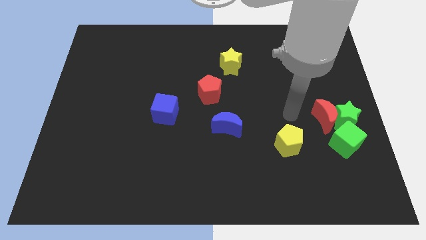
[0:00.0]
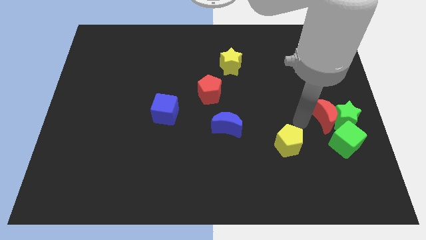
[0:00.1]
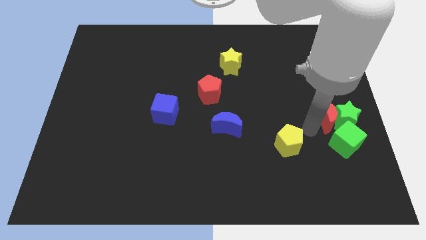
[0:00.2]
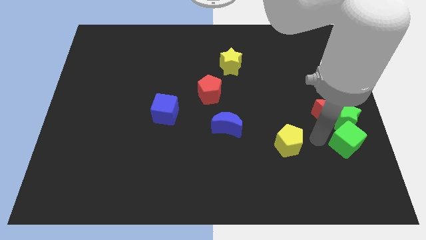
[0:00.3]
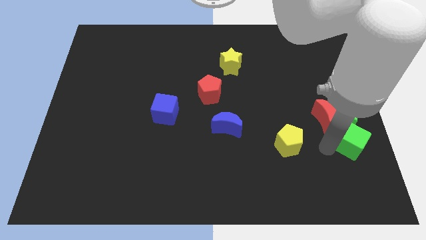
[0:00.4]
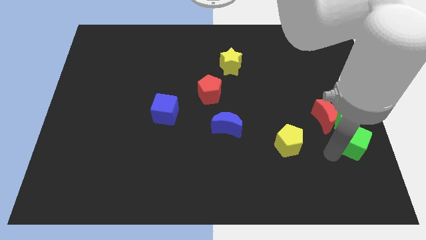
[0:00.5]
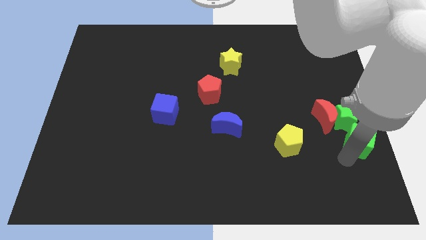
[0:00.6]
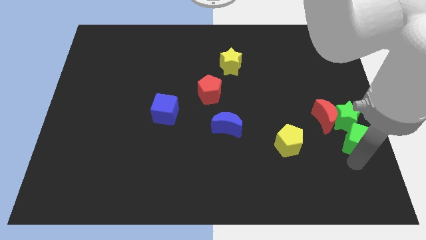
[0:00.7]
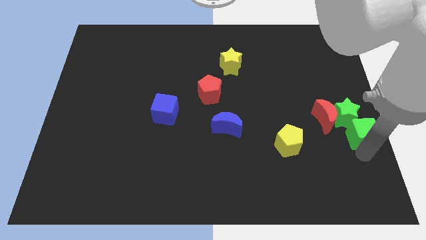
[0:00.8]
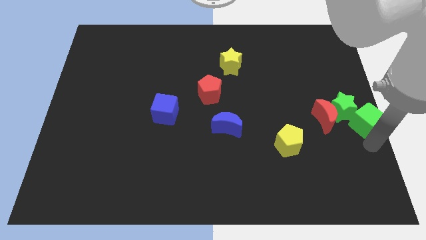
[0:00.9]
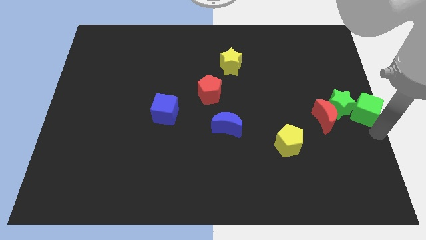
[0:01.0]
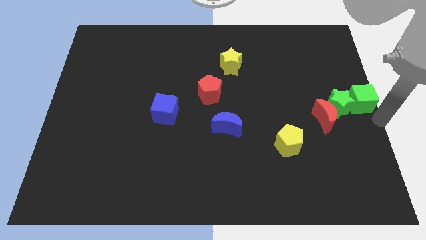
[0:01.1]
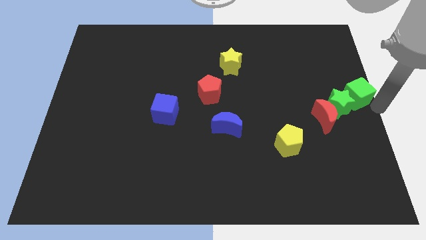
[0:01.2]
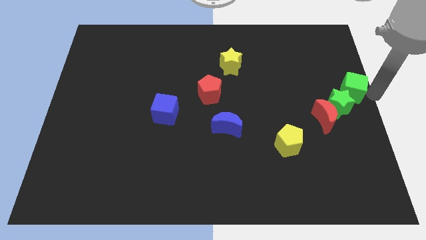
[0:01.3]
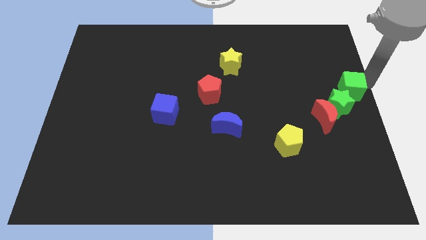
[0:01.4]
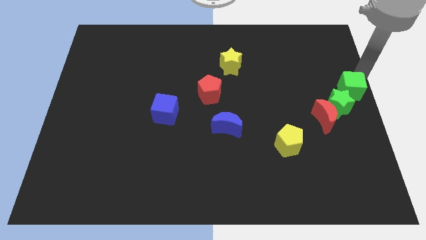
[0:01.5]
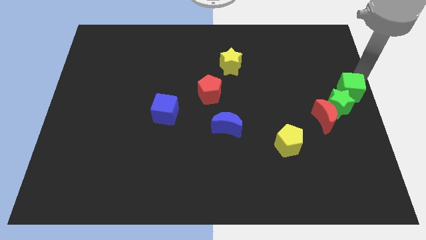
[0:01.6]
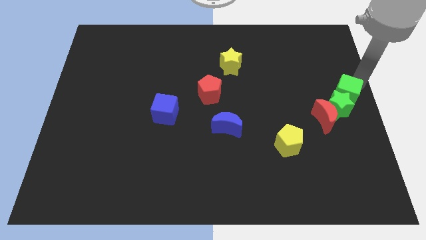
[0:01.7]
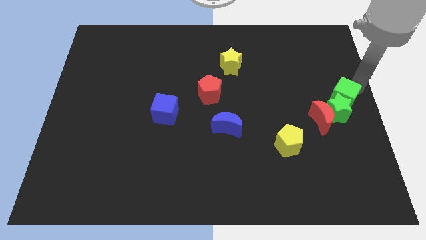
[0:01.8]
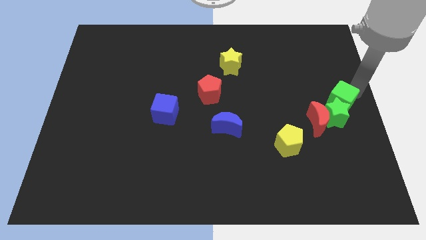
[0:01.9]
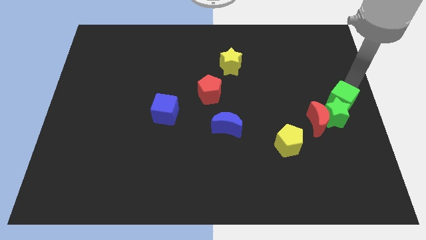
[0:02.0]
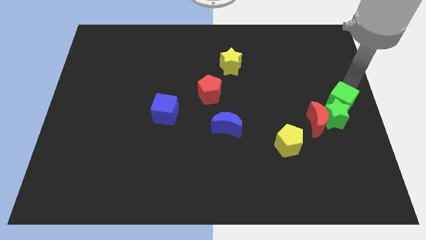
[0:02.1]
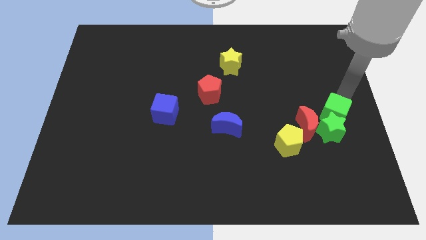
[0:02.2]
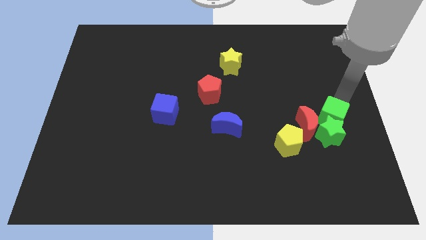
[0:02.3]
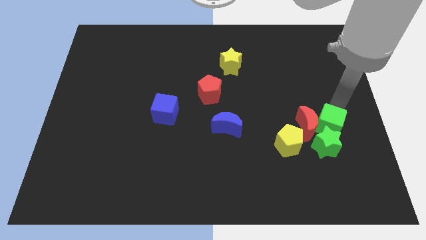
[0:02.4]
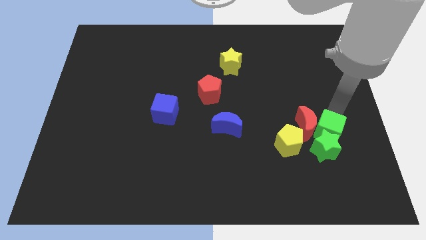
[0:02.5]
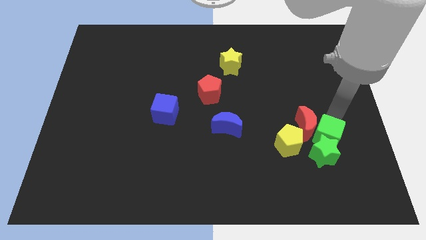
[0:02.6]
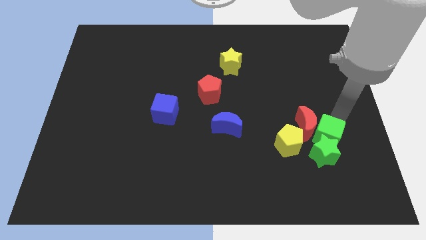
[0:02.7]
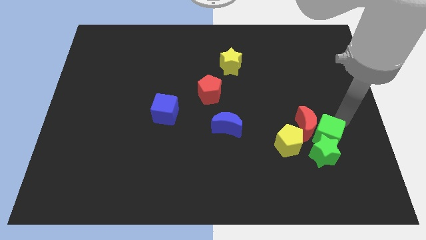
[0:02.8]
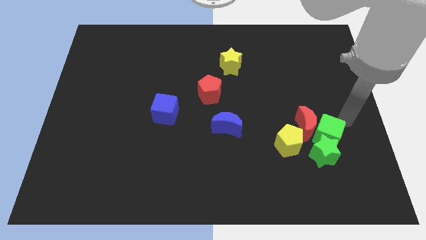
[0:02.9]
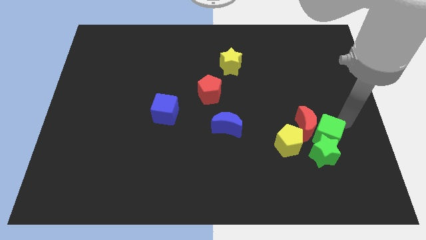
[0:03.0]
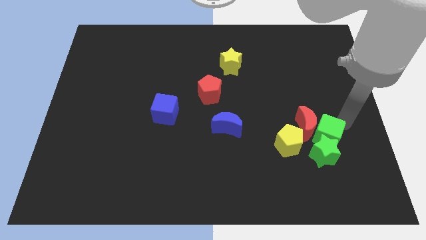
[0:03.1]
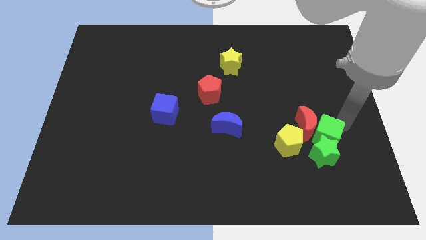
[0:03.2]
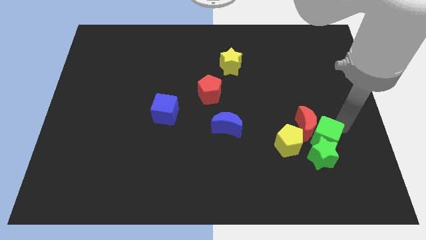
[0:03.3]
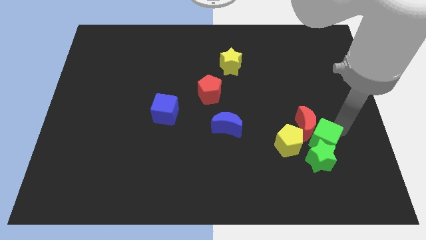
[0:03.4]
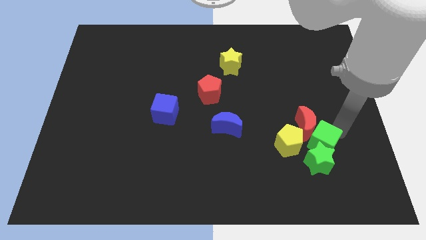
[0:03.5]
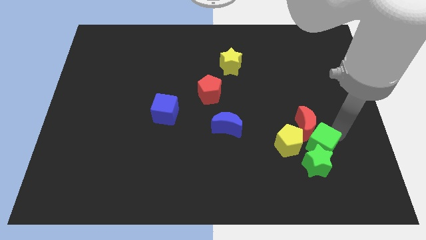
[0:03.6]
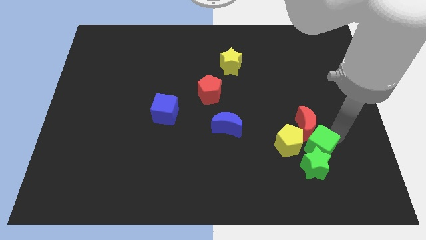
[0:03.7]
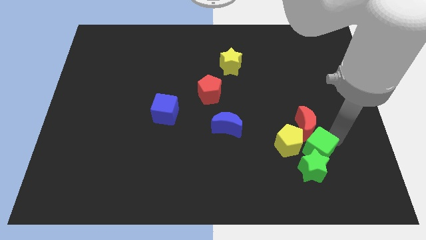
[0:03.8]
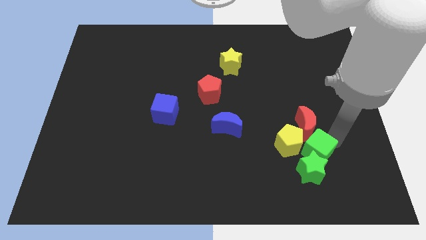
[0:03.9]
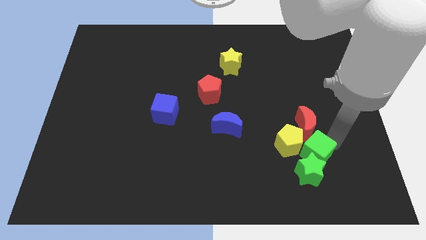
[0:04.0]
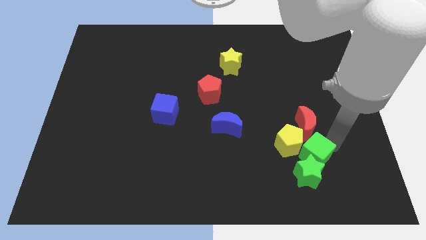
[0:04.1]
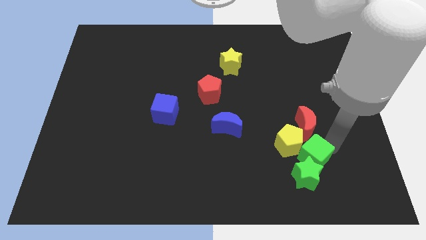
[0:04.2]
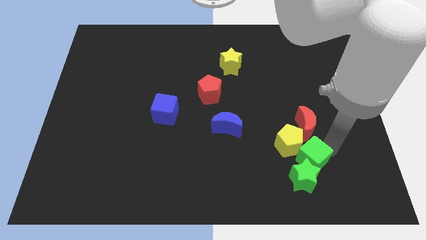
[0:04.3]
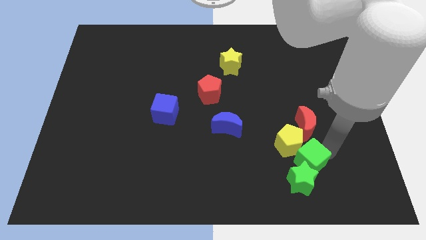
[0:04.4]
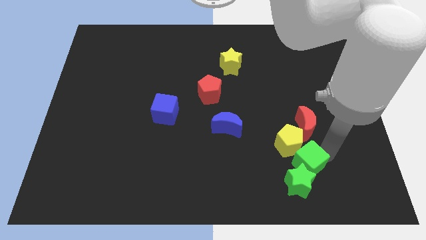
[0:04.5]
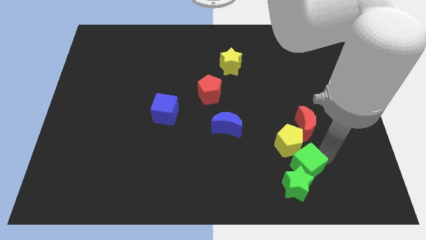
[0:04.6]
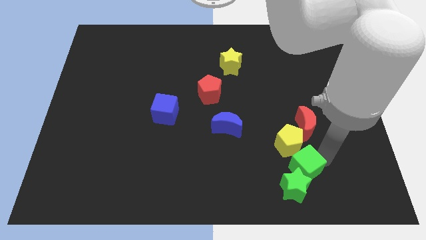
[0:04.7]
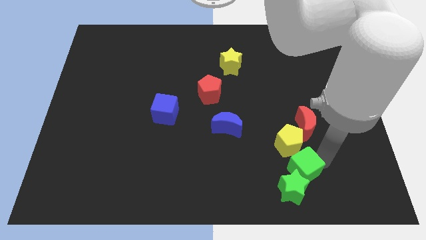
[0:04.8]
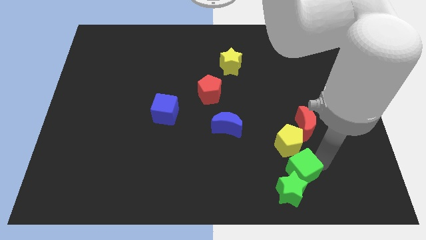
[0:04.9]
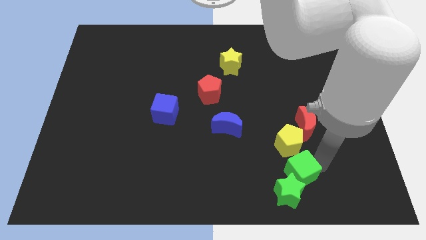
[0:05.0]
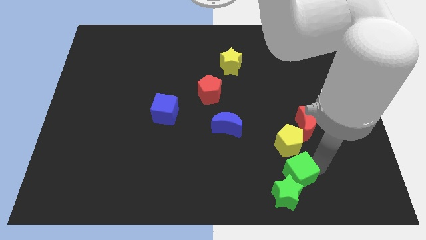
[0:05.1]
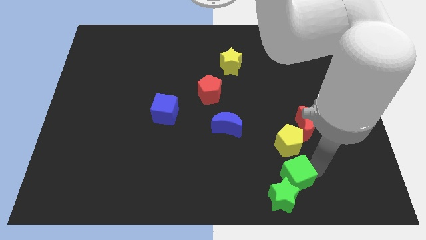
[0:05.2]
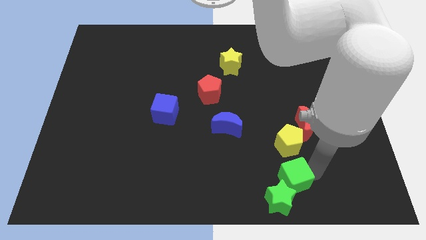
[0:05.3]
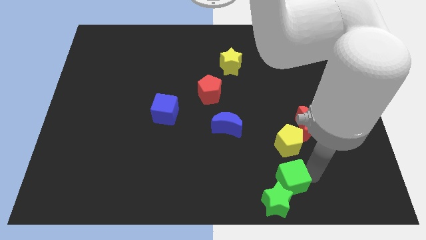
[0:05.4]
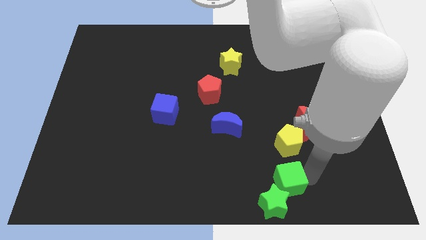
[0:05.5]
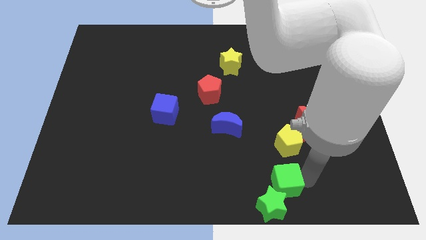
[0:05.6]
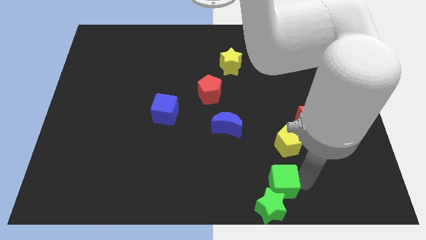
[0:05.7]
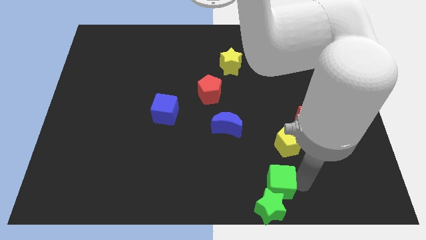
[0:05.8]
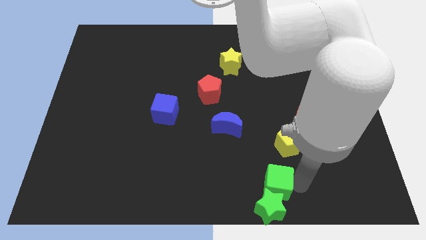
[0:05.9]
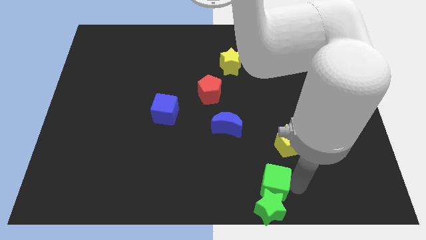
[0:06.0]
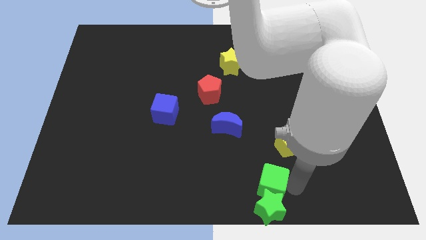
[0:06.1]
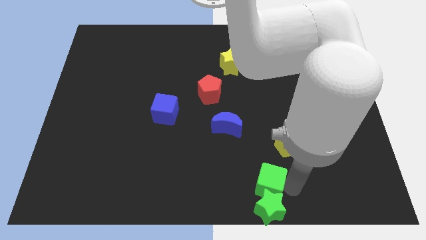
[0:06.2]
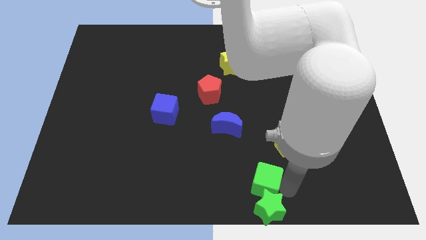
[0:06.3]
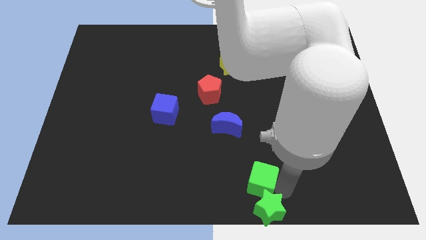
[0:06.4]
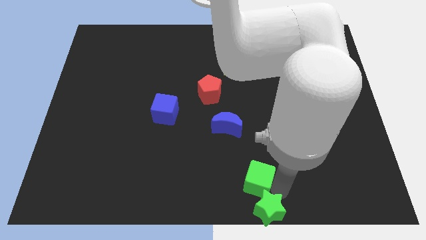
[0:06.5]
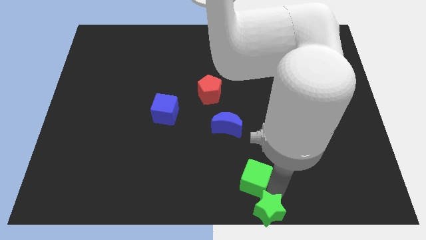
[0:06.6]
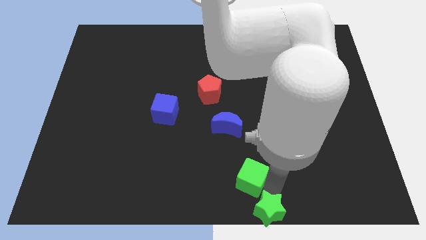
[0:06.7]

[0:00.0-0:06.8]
put the green cube below the blue moon
